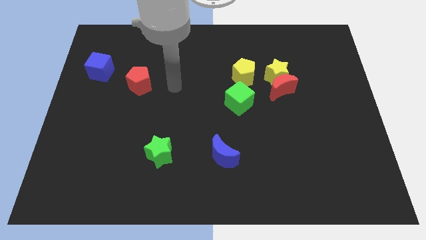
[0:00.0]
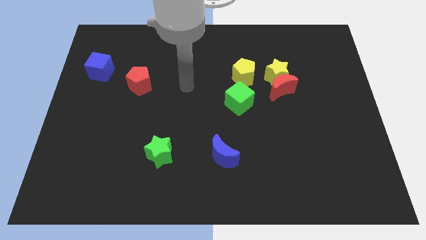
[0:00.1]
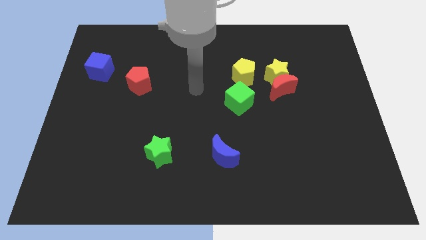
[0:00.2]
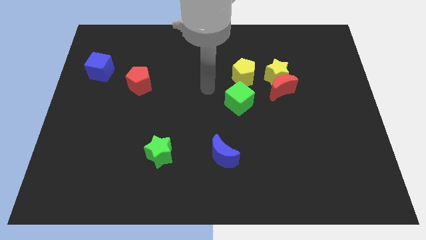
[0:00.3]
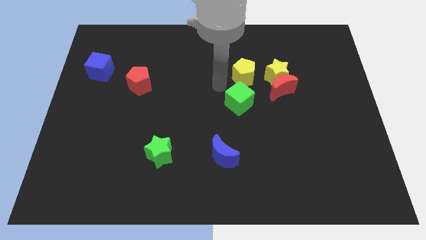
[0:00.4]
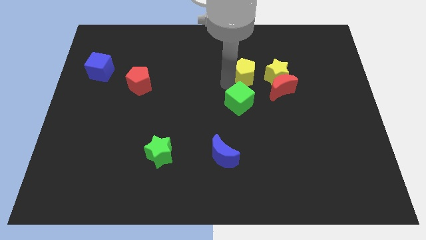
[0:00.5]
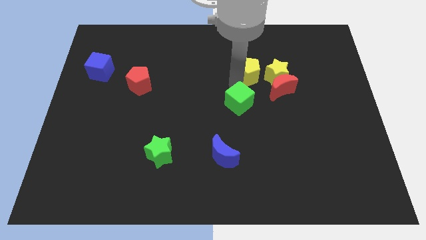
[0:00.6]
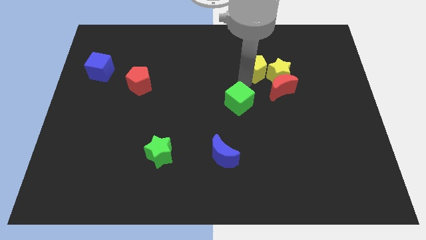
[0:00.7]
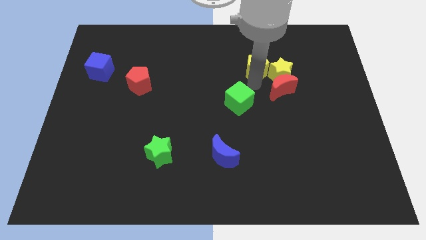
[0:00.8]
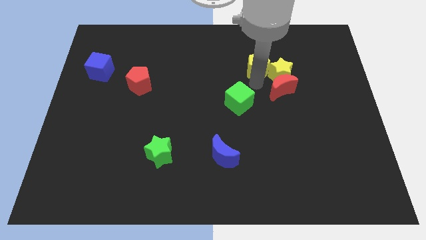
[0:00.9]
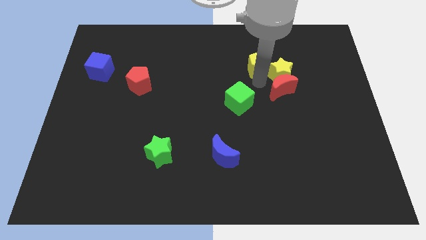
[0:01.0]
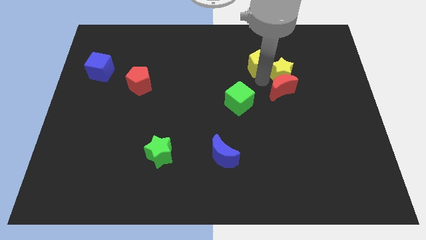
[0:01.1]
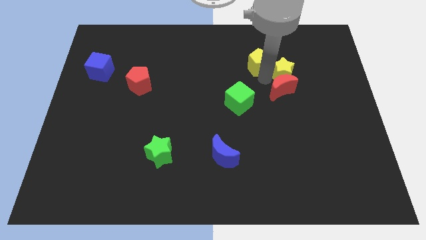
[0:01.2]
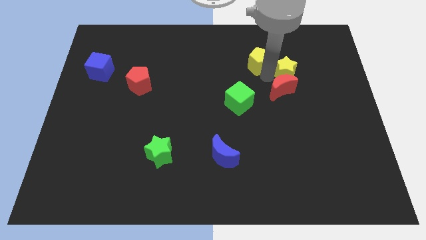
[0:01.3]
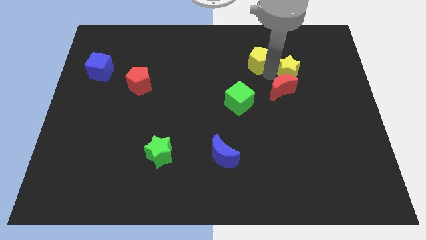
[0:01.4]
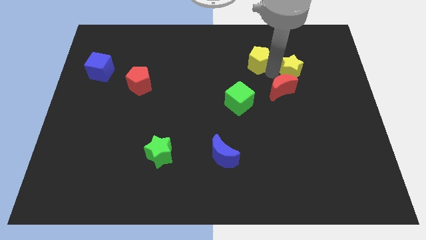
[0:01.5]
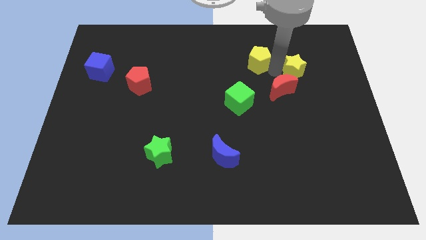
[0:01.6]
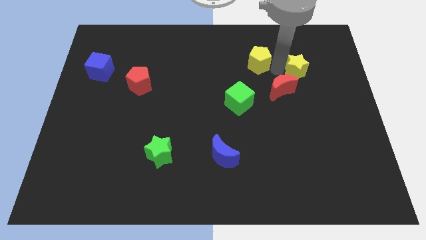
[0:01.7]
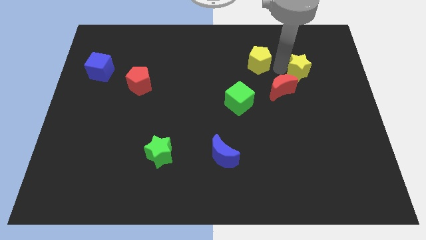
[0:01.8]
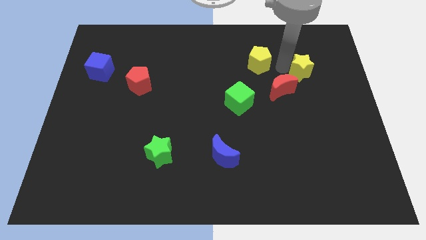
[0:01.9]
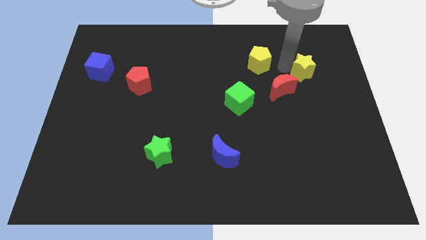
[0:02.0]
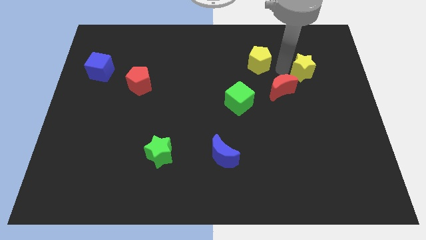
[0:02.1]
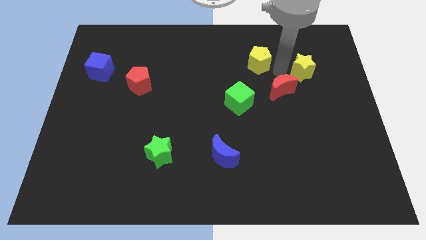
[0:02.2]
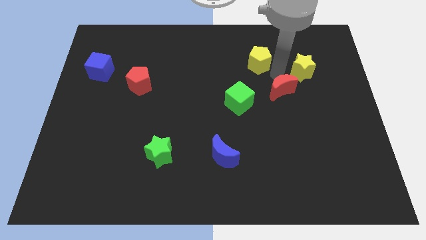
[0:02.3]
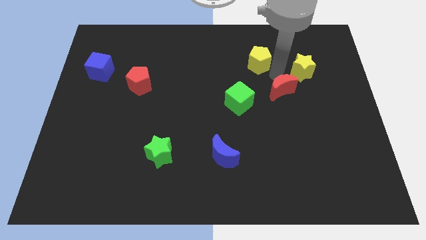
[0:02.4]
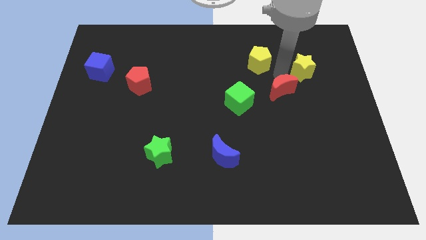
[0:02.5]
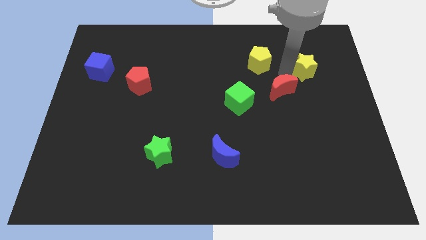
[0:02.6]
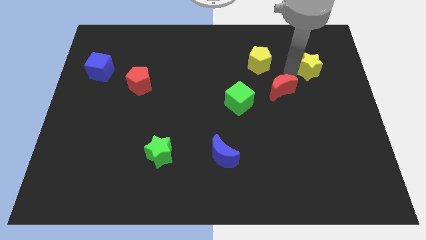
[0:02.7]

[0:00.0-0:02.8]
pull the yellow star apart from the red moon and yellow pentagon

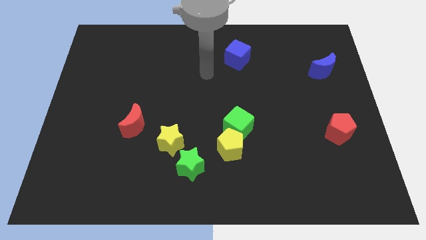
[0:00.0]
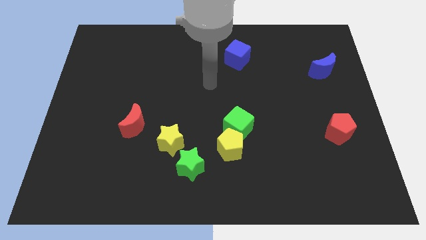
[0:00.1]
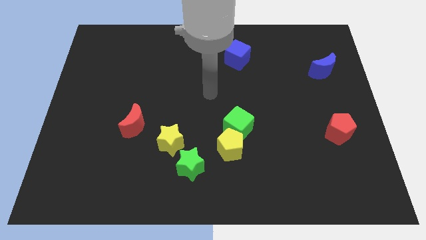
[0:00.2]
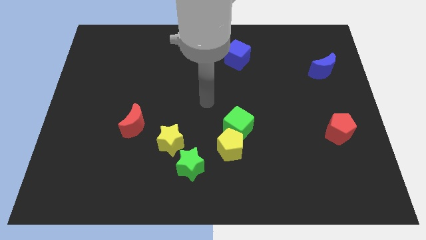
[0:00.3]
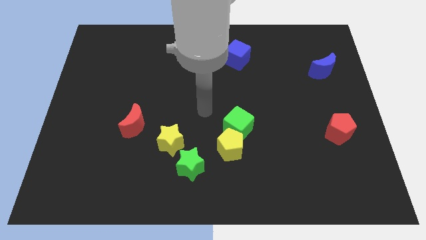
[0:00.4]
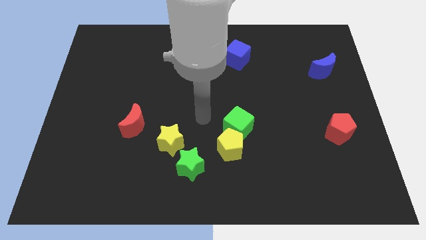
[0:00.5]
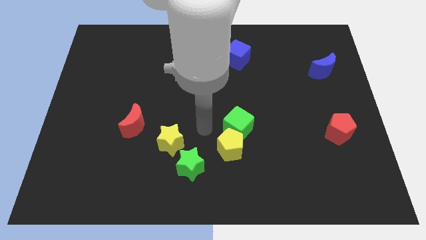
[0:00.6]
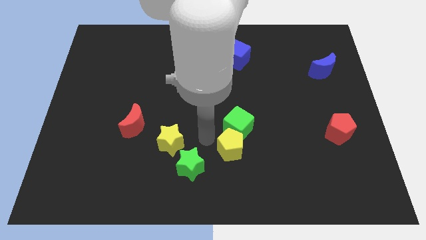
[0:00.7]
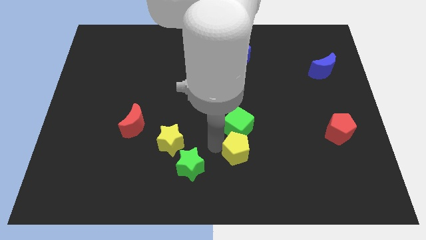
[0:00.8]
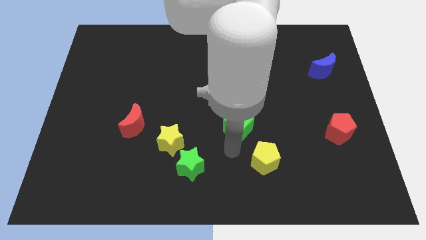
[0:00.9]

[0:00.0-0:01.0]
separate the green cube from the yellow pentagon

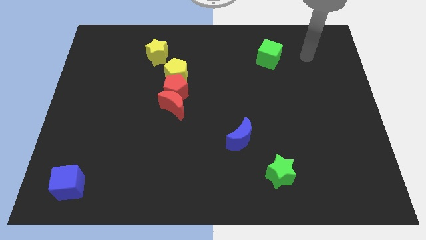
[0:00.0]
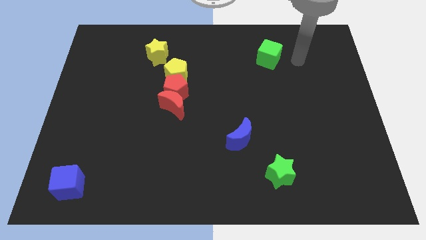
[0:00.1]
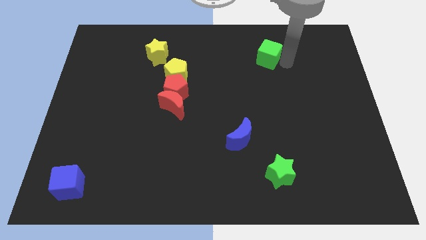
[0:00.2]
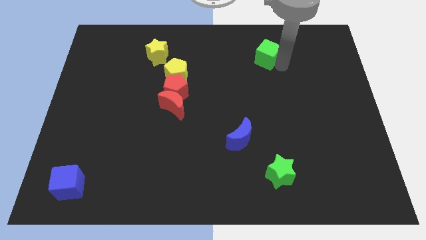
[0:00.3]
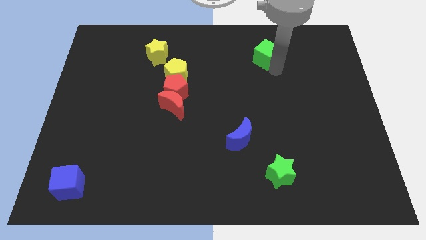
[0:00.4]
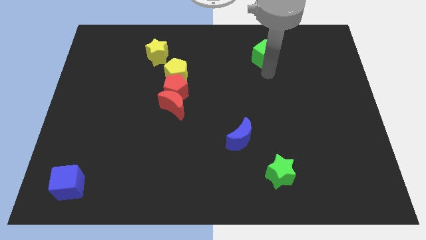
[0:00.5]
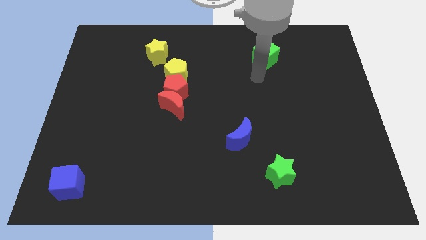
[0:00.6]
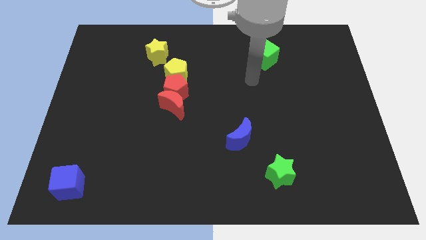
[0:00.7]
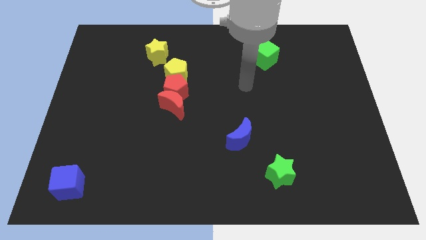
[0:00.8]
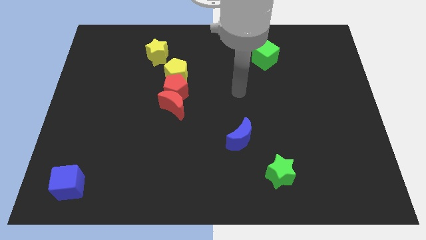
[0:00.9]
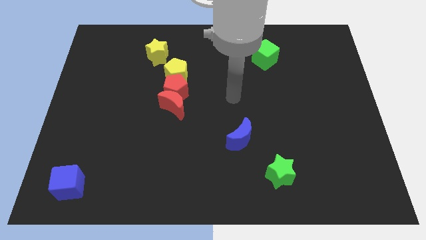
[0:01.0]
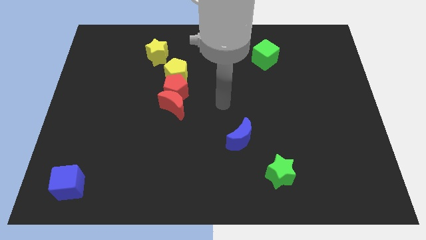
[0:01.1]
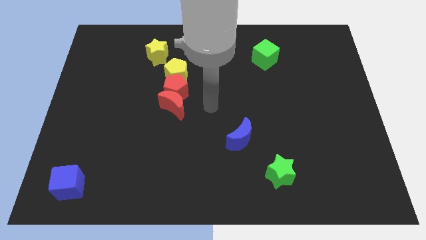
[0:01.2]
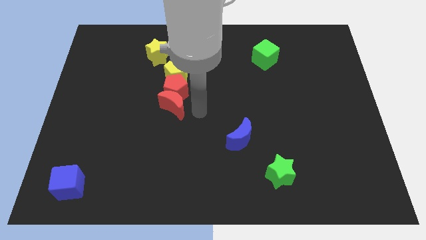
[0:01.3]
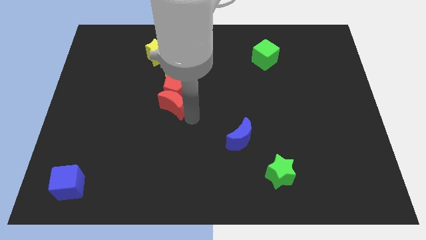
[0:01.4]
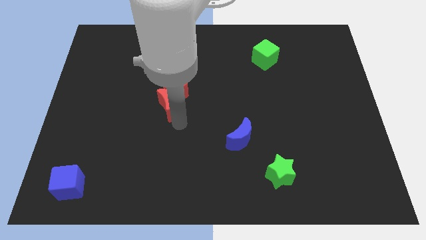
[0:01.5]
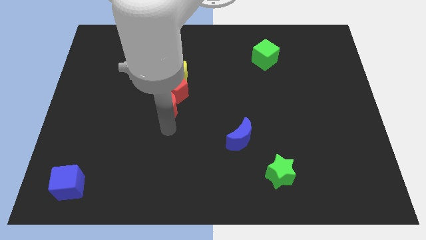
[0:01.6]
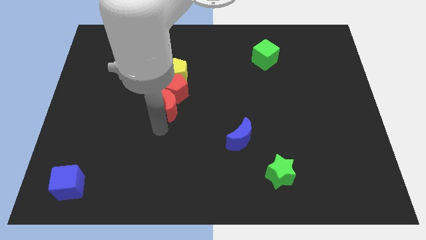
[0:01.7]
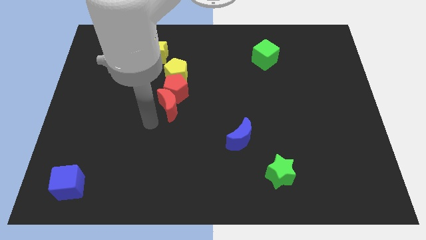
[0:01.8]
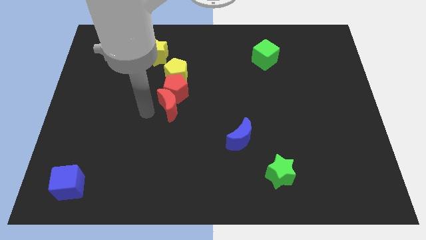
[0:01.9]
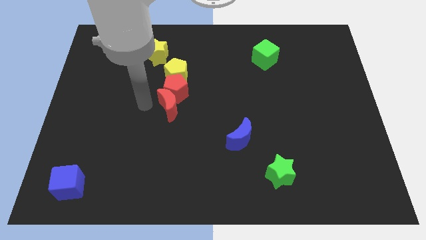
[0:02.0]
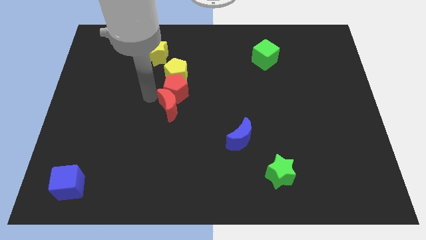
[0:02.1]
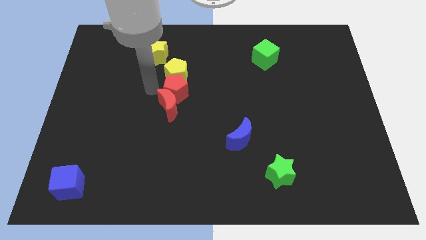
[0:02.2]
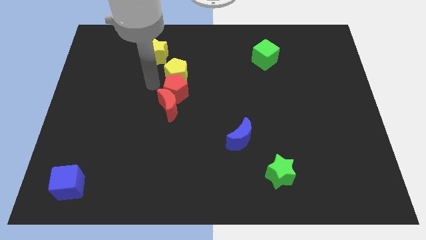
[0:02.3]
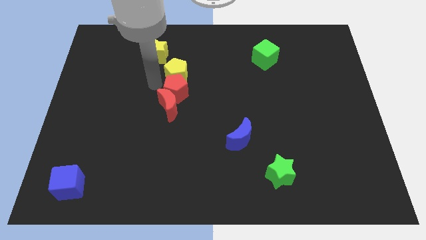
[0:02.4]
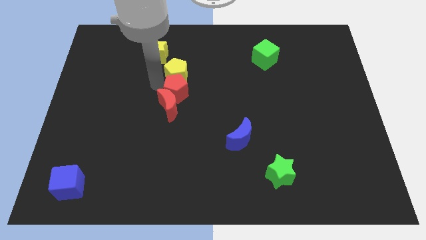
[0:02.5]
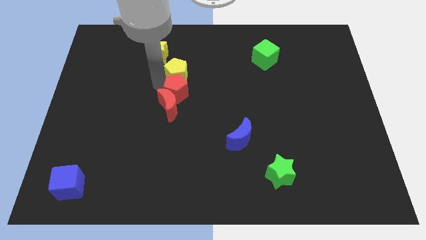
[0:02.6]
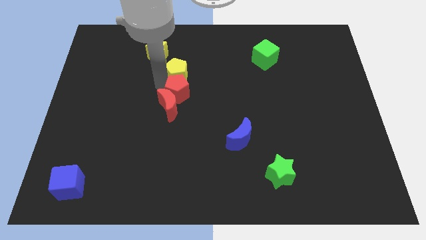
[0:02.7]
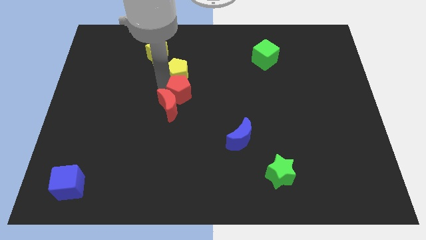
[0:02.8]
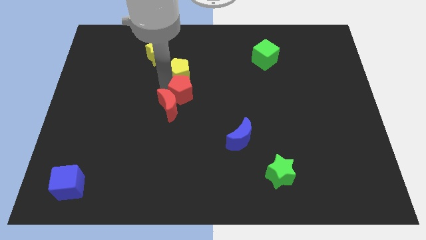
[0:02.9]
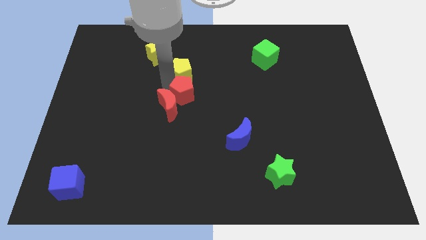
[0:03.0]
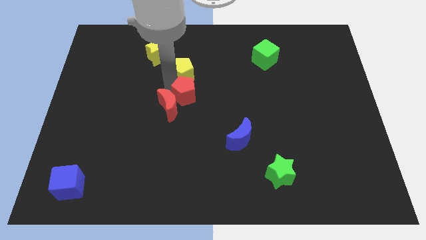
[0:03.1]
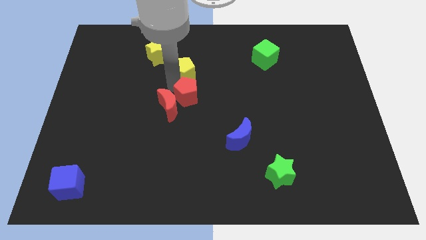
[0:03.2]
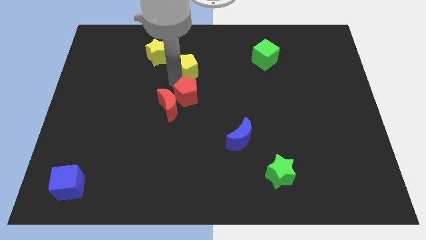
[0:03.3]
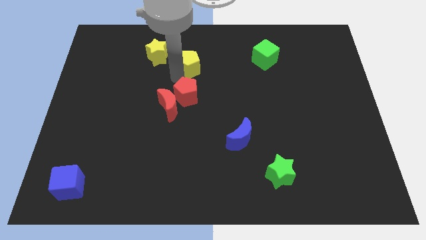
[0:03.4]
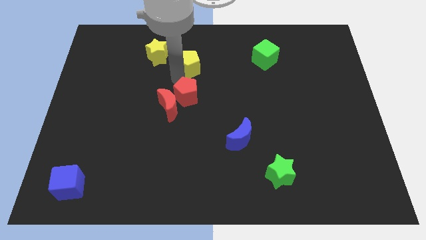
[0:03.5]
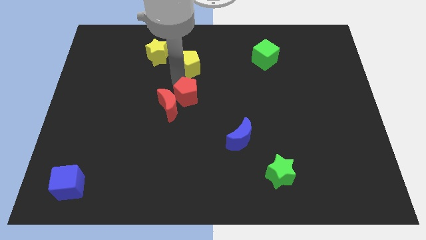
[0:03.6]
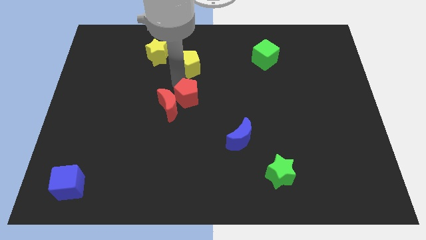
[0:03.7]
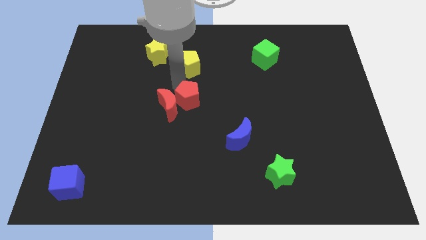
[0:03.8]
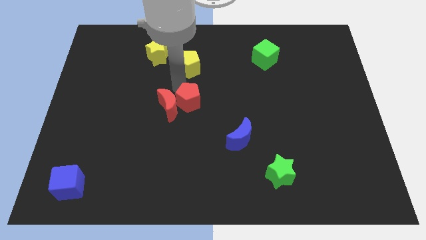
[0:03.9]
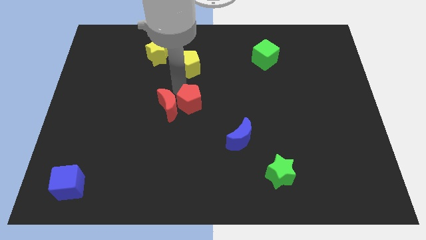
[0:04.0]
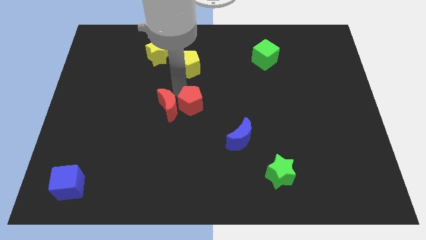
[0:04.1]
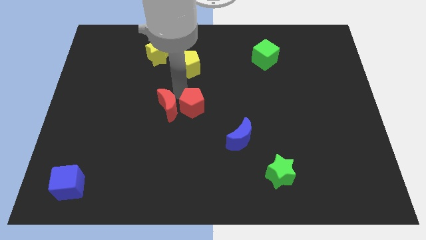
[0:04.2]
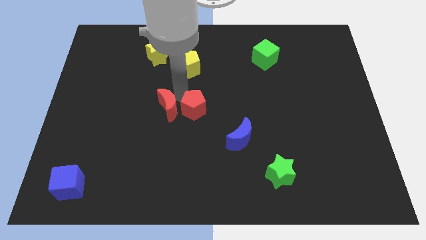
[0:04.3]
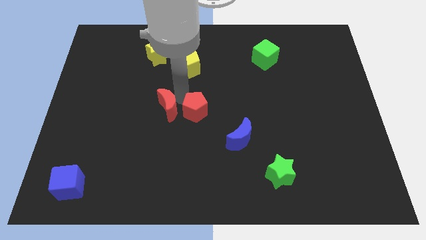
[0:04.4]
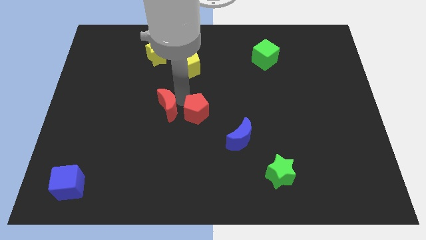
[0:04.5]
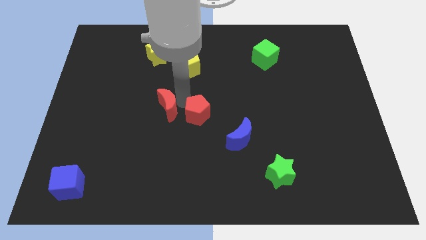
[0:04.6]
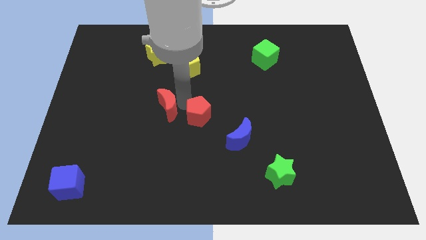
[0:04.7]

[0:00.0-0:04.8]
separate the red pentagon from the red moon and yellow pentagon

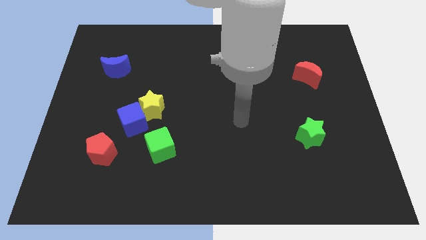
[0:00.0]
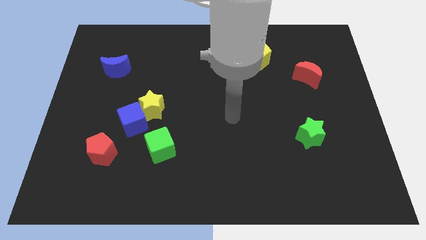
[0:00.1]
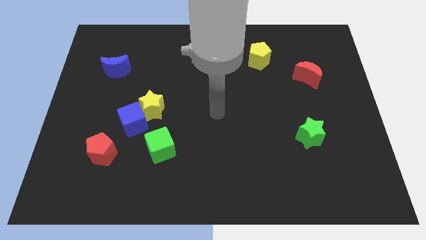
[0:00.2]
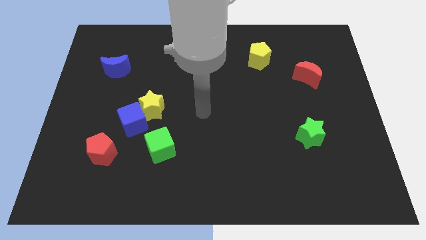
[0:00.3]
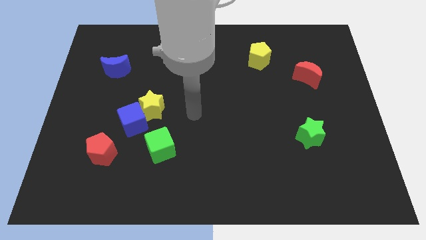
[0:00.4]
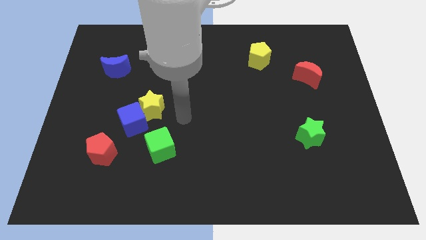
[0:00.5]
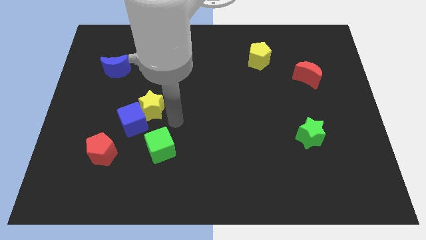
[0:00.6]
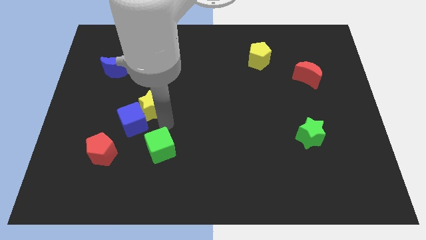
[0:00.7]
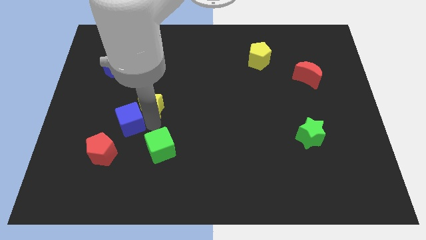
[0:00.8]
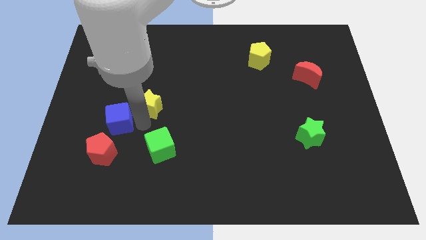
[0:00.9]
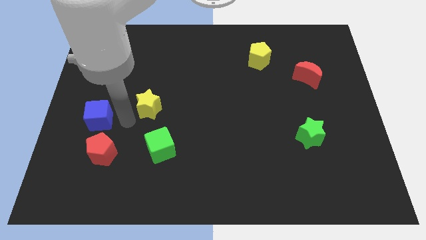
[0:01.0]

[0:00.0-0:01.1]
move the yellow star away from the blue cube
